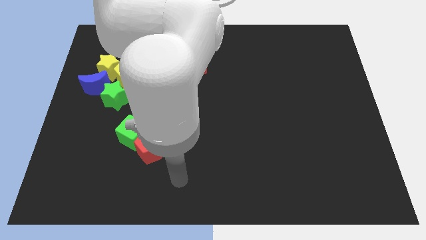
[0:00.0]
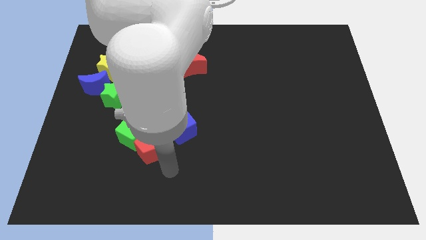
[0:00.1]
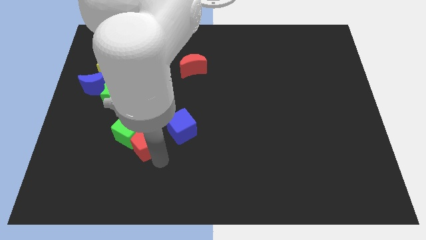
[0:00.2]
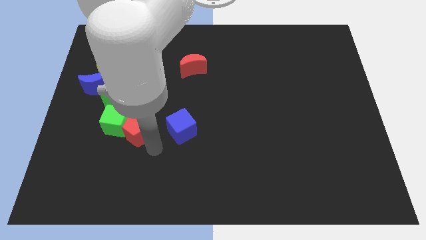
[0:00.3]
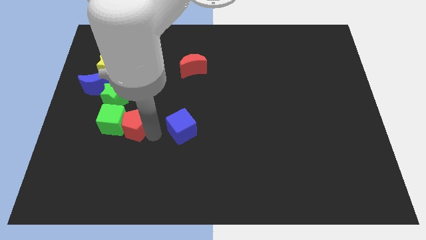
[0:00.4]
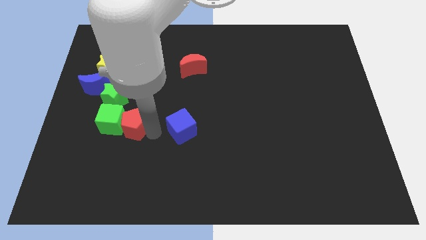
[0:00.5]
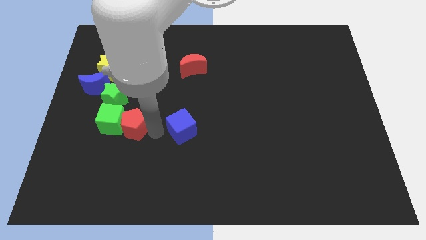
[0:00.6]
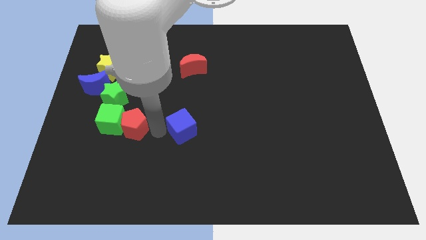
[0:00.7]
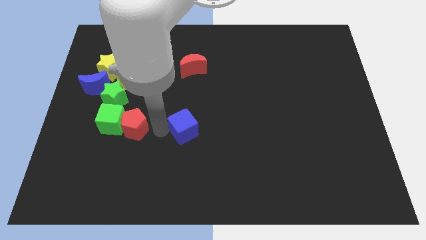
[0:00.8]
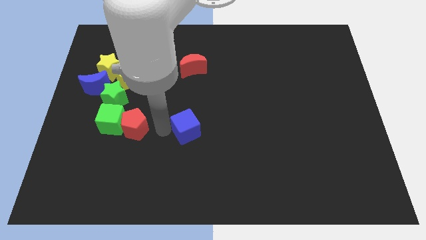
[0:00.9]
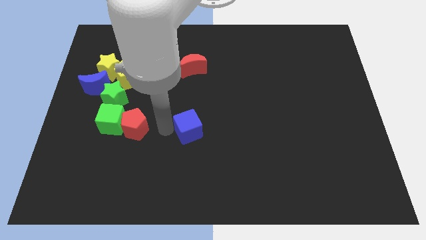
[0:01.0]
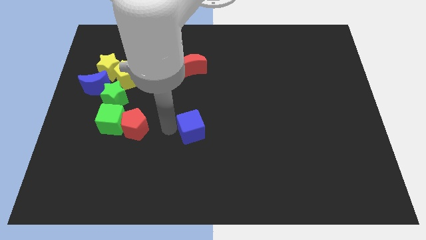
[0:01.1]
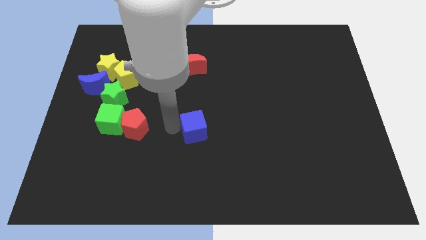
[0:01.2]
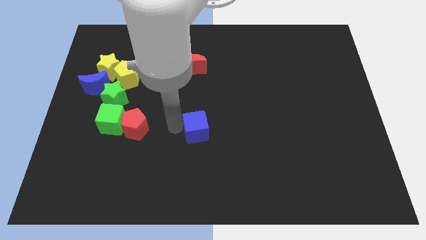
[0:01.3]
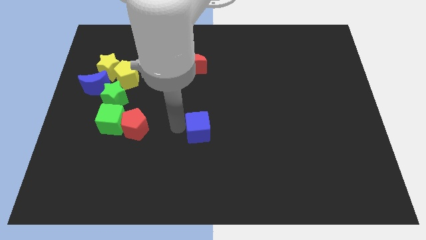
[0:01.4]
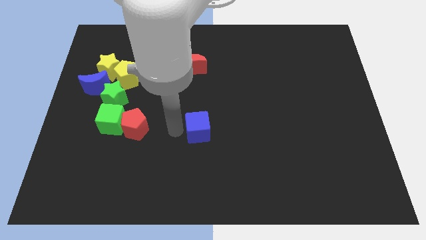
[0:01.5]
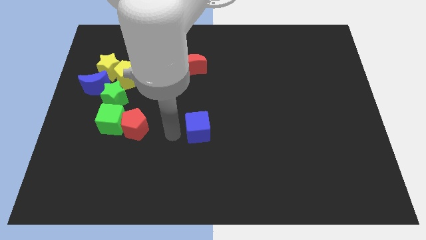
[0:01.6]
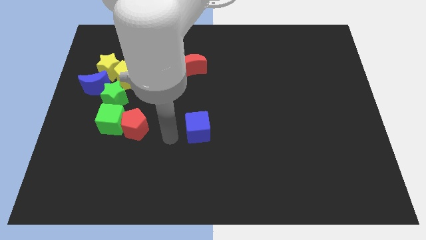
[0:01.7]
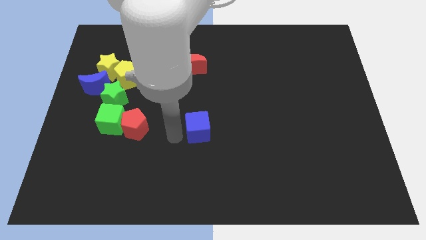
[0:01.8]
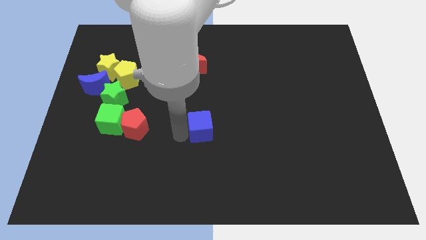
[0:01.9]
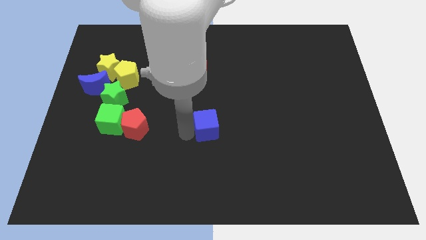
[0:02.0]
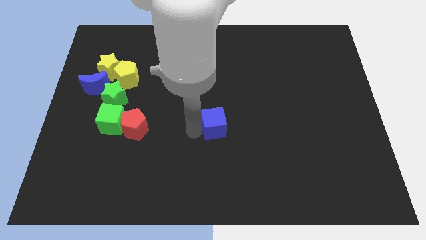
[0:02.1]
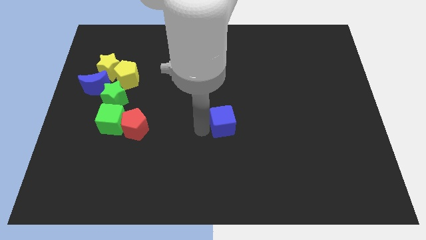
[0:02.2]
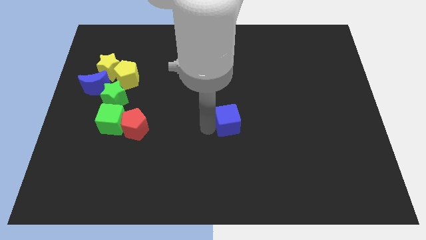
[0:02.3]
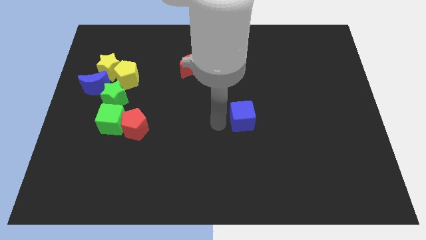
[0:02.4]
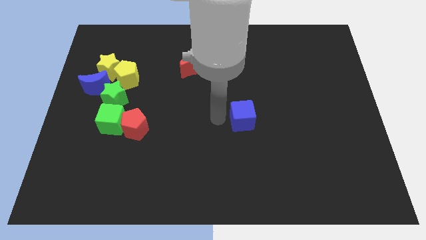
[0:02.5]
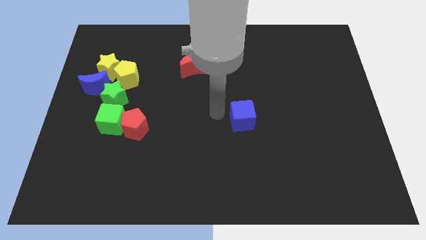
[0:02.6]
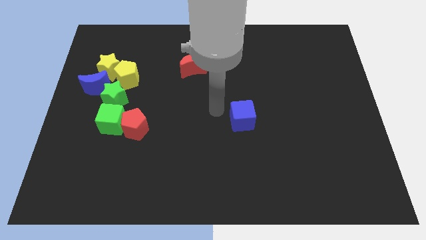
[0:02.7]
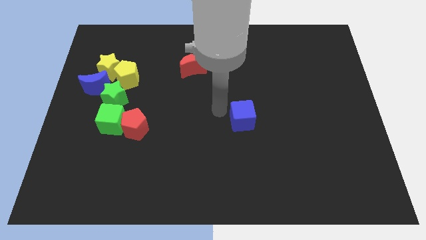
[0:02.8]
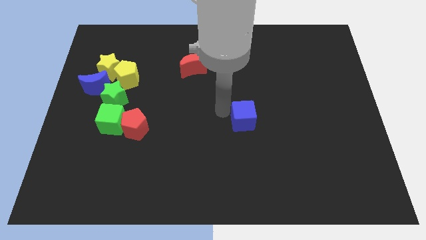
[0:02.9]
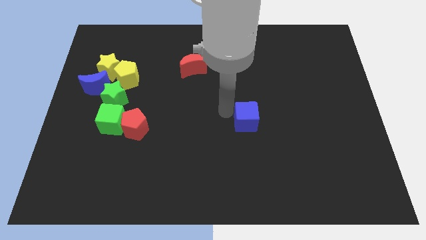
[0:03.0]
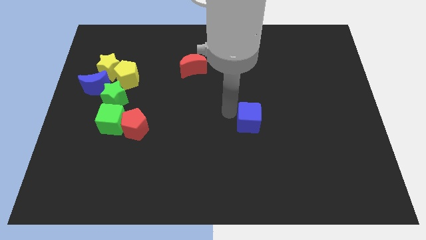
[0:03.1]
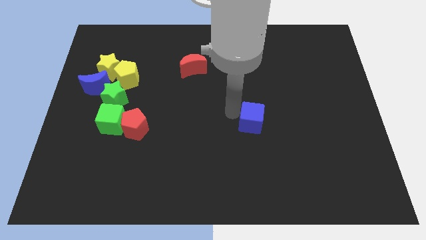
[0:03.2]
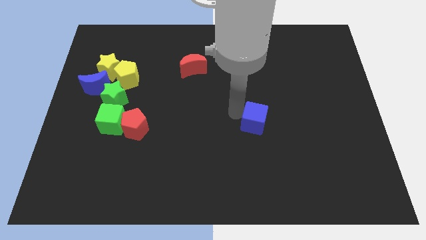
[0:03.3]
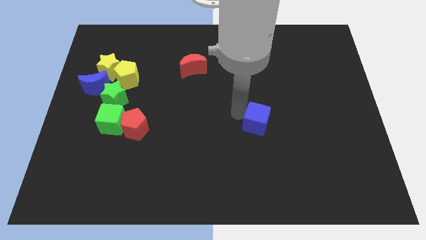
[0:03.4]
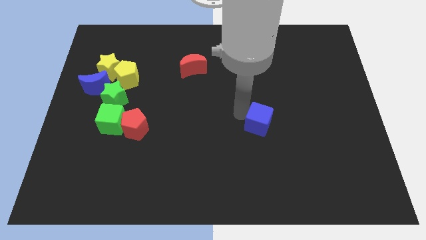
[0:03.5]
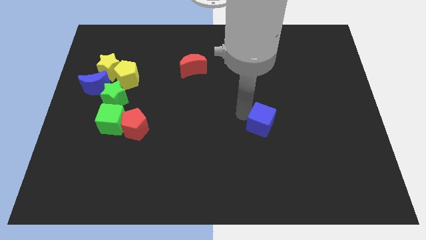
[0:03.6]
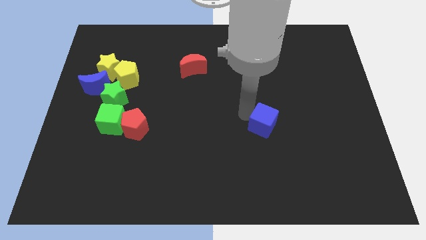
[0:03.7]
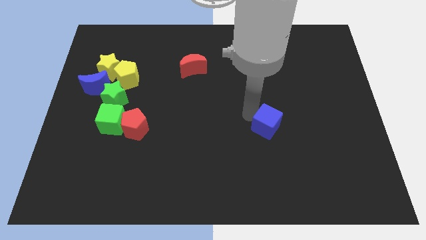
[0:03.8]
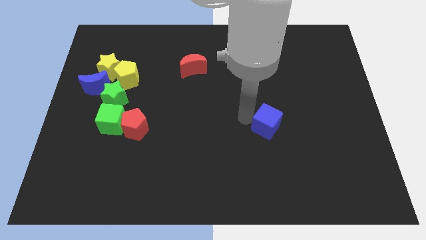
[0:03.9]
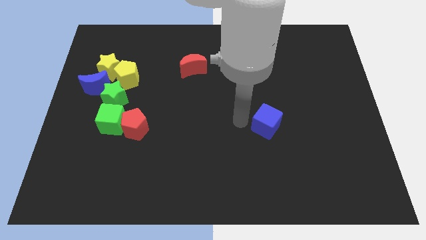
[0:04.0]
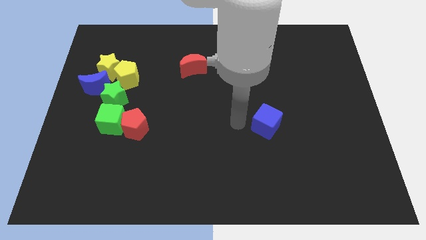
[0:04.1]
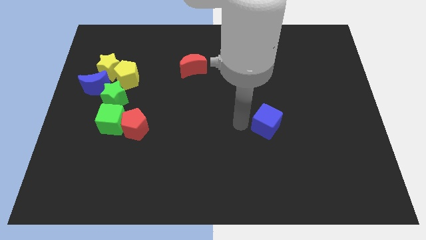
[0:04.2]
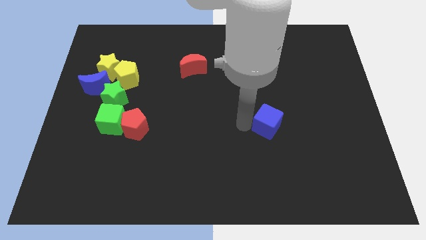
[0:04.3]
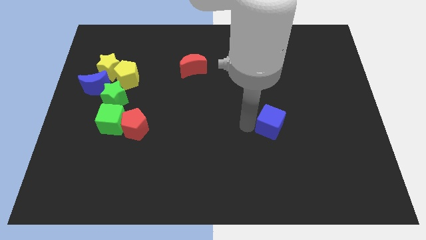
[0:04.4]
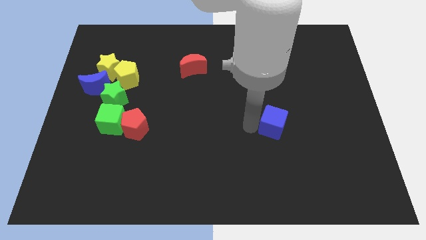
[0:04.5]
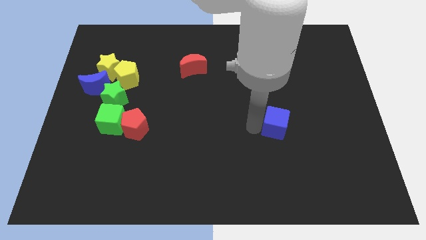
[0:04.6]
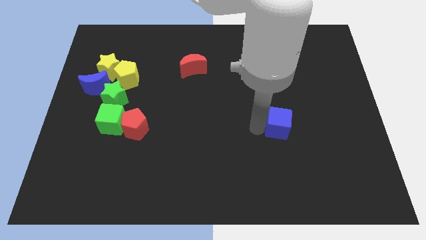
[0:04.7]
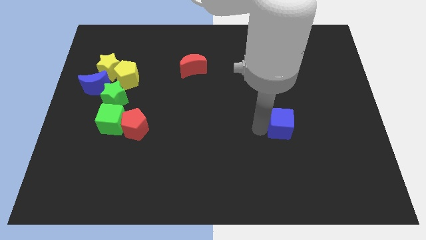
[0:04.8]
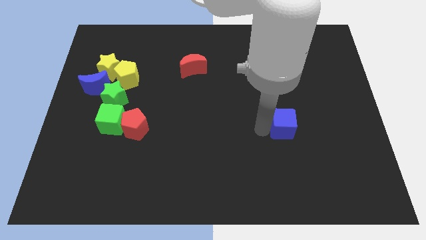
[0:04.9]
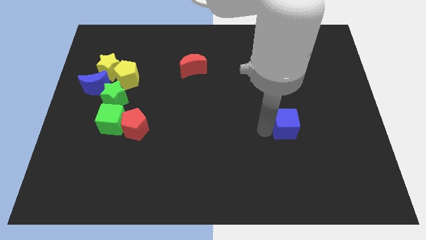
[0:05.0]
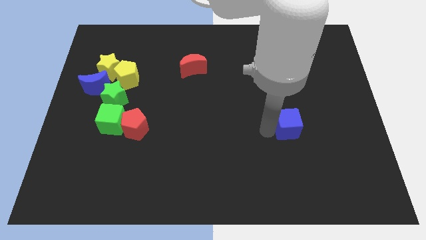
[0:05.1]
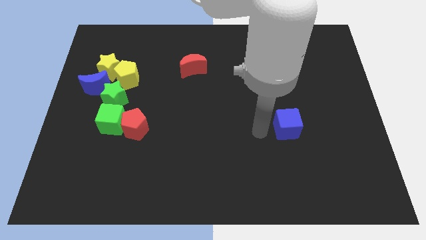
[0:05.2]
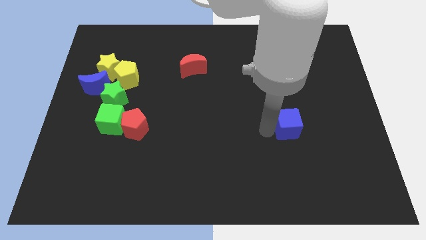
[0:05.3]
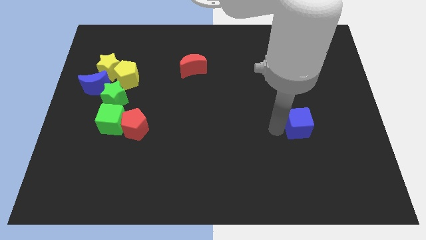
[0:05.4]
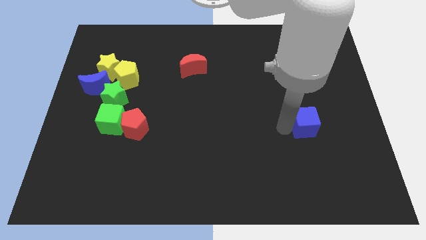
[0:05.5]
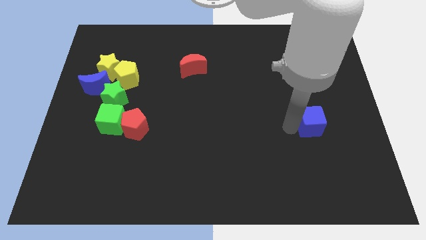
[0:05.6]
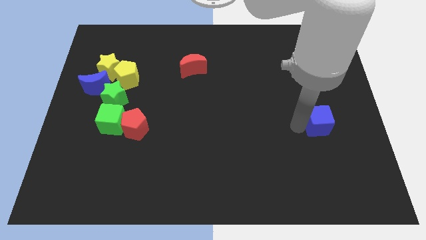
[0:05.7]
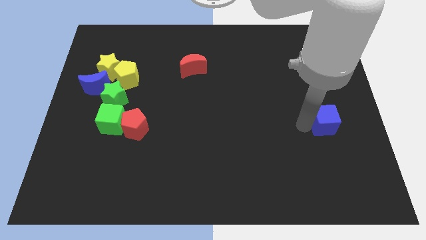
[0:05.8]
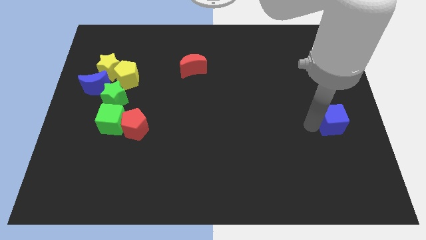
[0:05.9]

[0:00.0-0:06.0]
put the blue cube to the right side

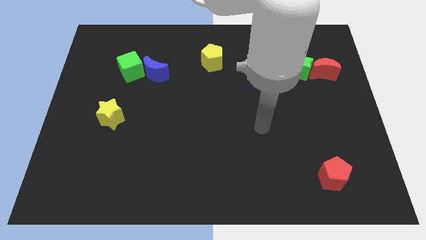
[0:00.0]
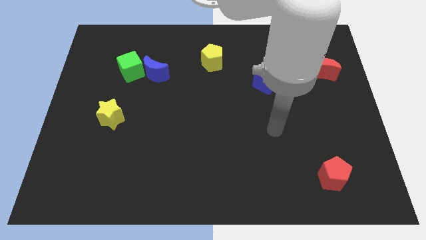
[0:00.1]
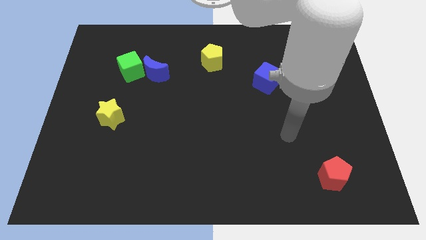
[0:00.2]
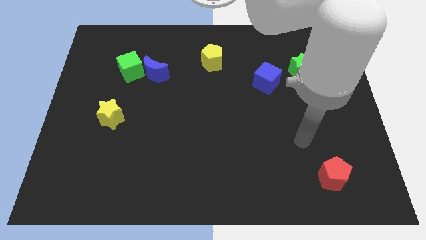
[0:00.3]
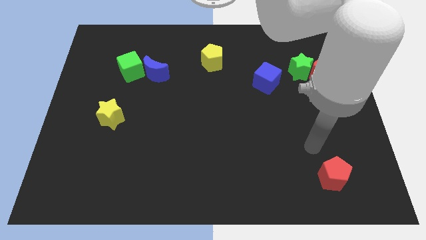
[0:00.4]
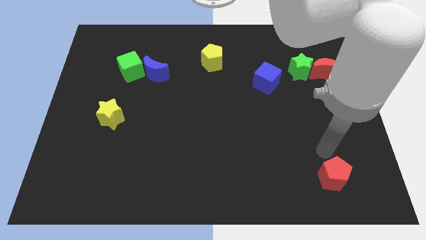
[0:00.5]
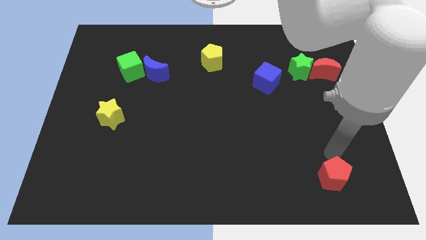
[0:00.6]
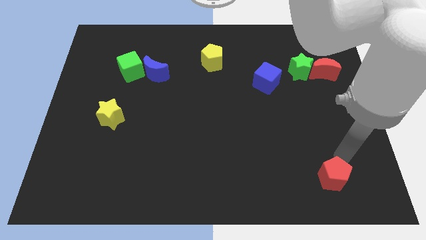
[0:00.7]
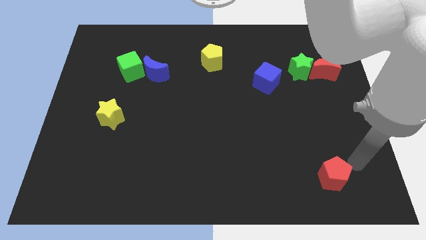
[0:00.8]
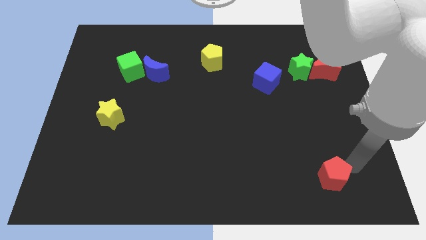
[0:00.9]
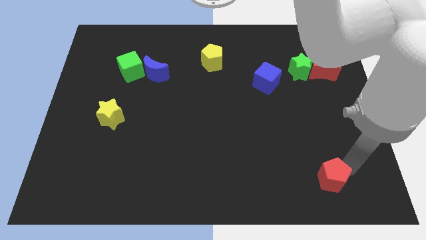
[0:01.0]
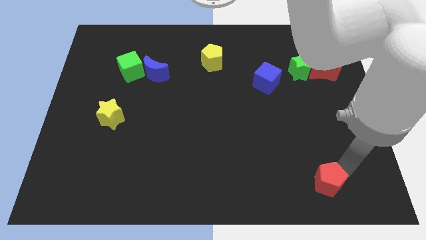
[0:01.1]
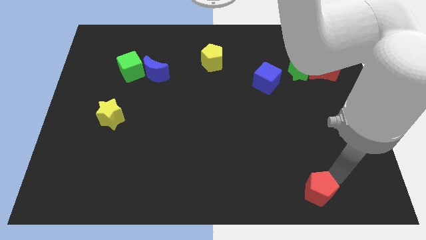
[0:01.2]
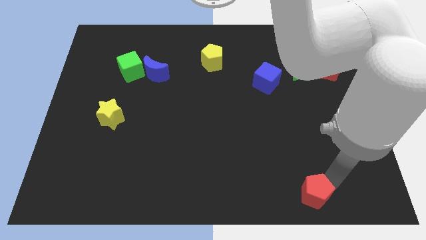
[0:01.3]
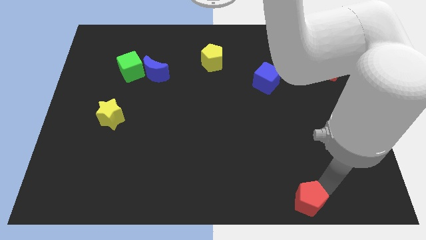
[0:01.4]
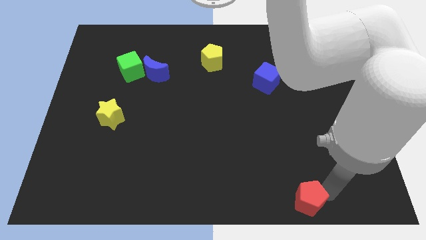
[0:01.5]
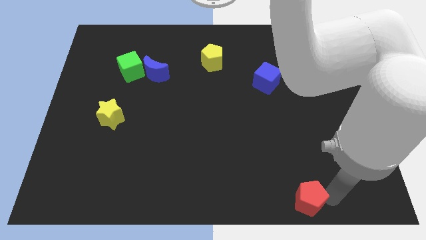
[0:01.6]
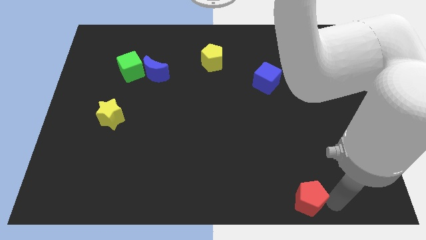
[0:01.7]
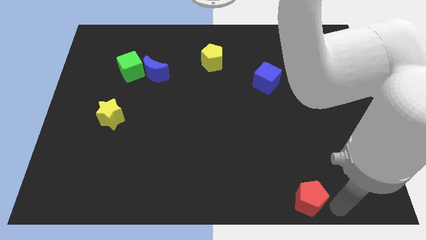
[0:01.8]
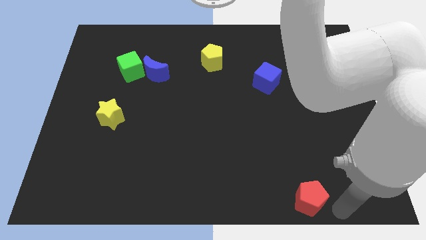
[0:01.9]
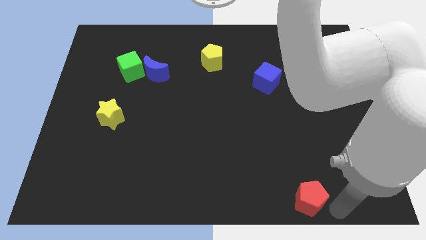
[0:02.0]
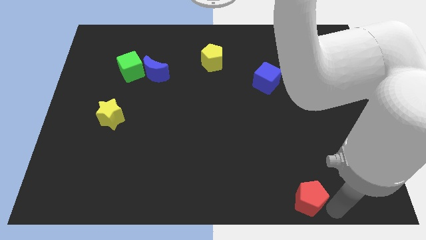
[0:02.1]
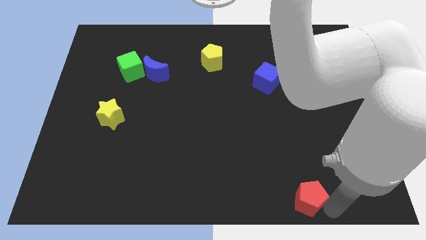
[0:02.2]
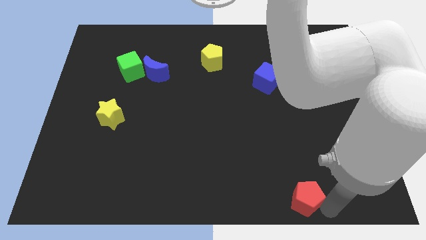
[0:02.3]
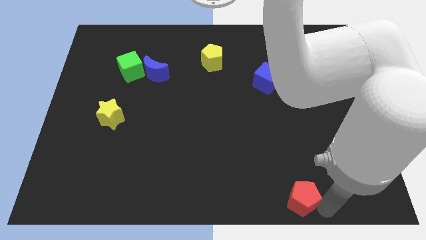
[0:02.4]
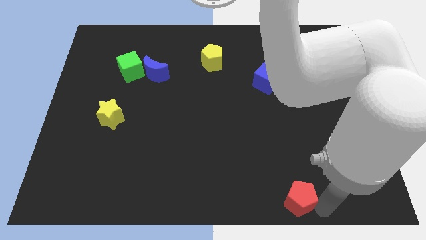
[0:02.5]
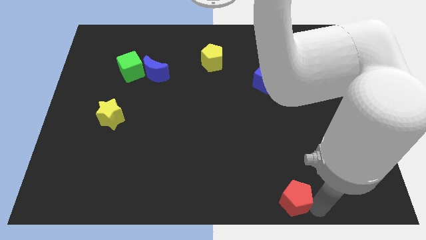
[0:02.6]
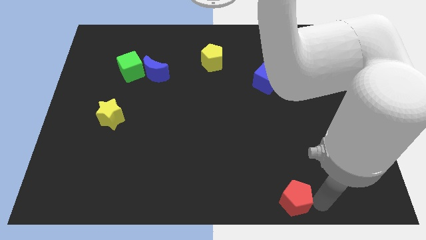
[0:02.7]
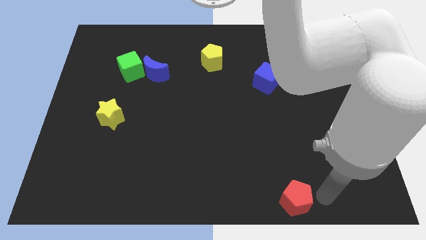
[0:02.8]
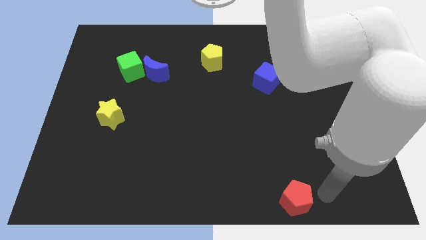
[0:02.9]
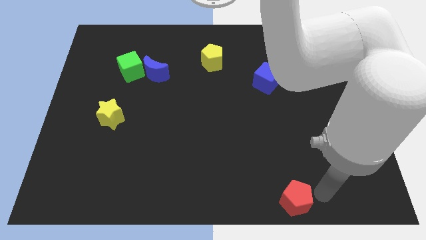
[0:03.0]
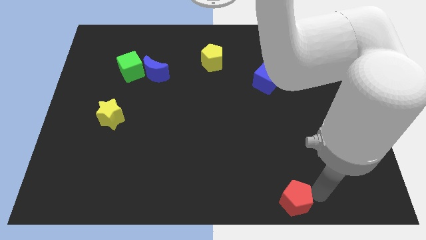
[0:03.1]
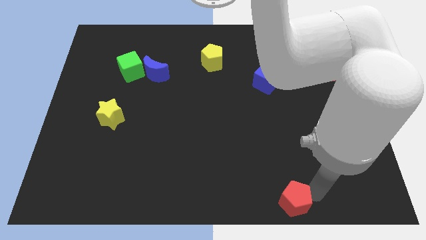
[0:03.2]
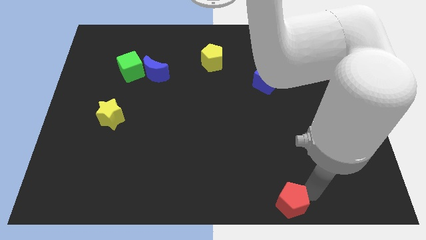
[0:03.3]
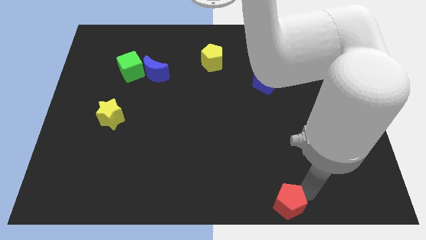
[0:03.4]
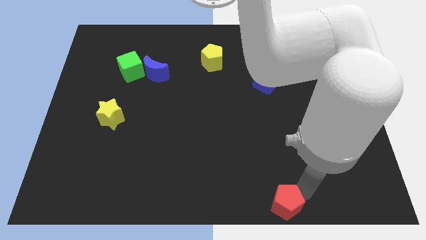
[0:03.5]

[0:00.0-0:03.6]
push the red pentagon to the bottom side
